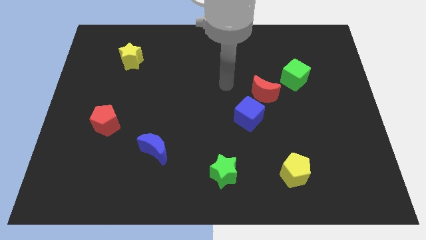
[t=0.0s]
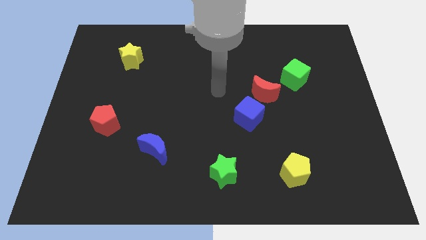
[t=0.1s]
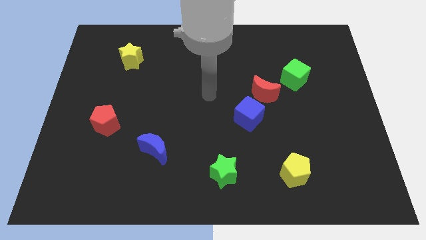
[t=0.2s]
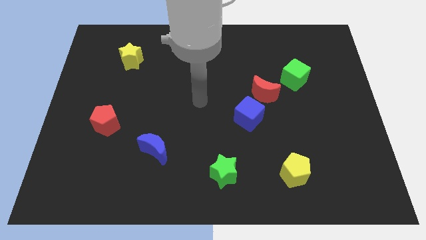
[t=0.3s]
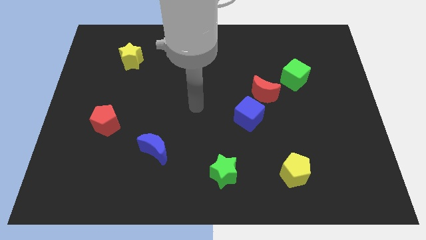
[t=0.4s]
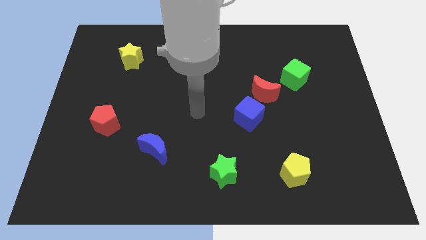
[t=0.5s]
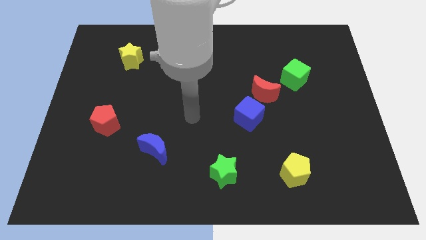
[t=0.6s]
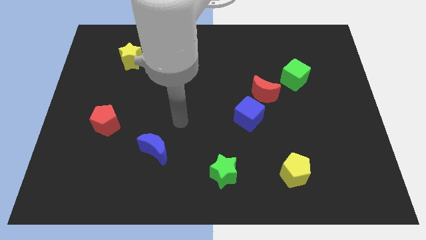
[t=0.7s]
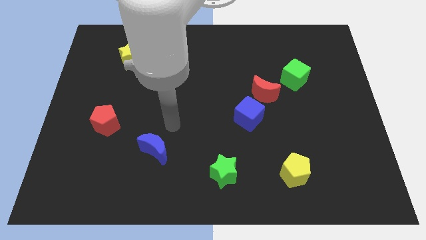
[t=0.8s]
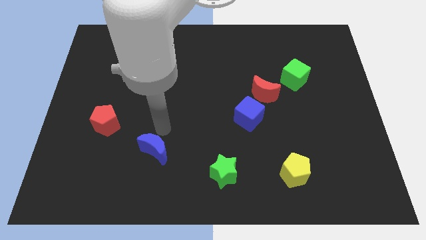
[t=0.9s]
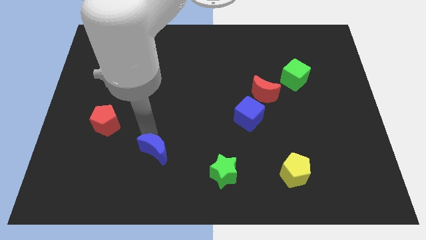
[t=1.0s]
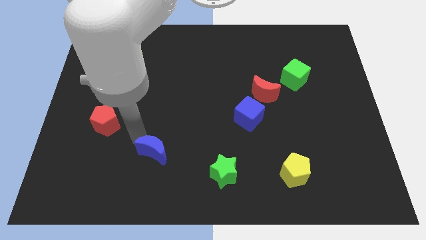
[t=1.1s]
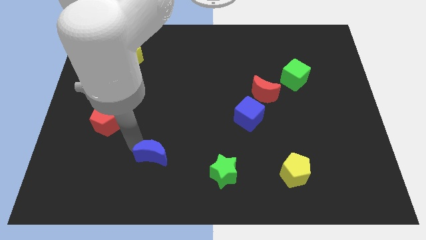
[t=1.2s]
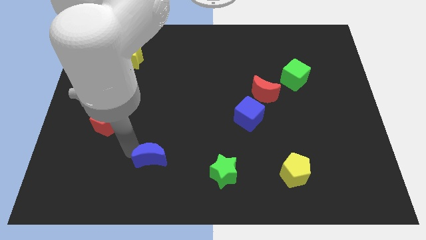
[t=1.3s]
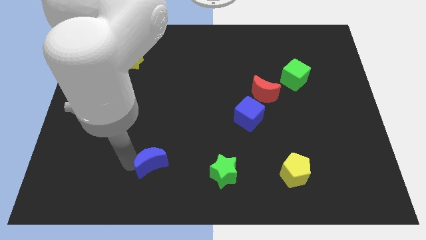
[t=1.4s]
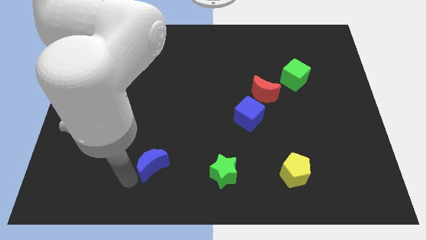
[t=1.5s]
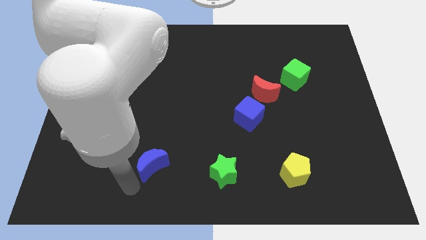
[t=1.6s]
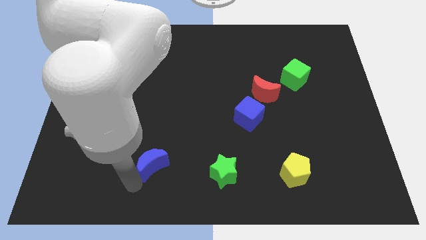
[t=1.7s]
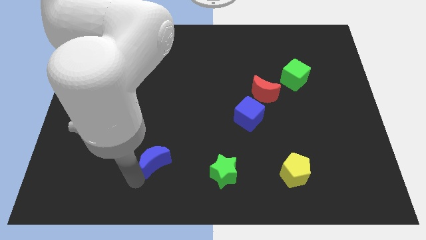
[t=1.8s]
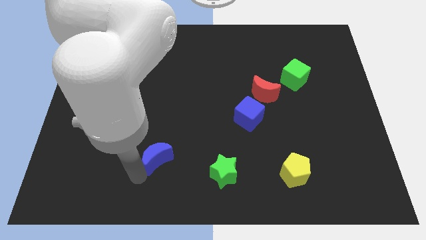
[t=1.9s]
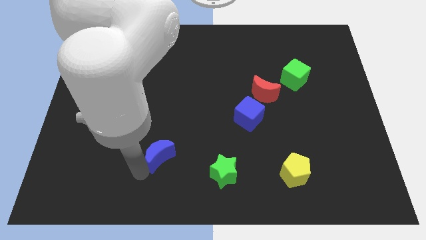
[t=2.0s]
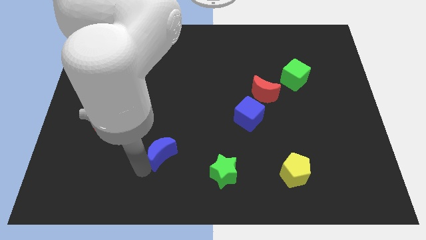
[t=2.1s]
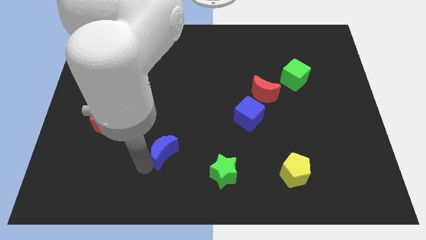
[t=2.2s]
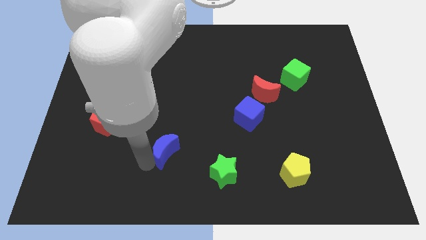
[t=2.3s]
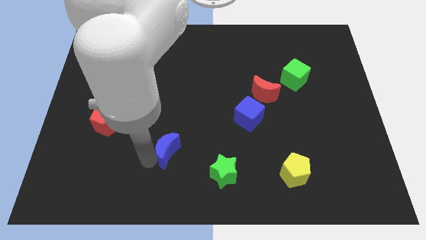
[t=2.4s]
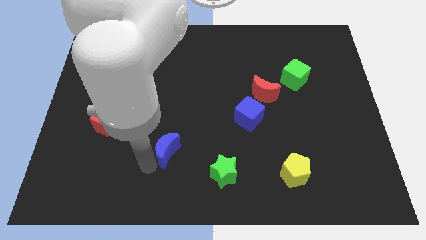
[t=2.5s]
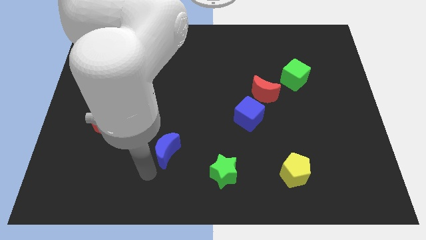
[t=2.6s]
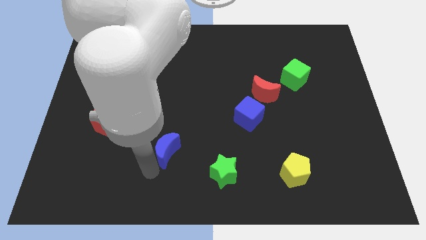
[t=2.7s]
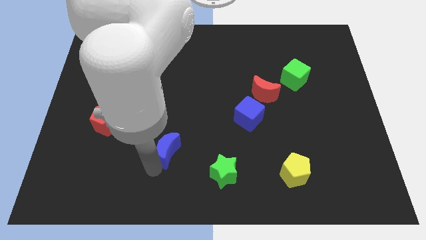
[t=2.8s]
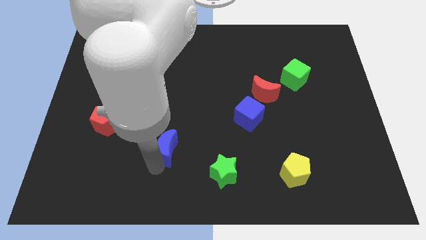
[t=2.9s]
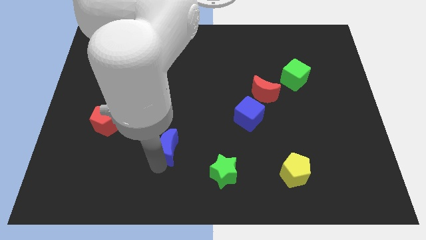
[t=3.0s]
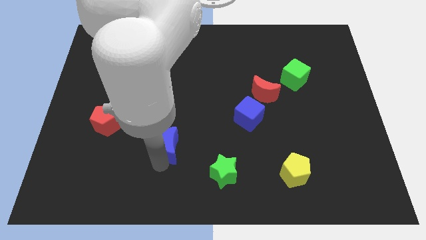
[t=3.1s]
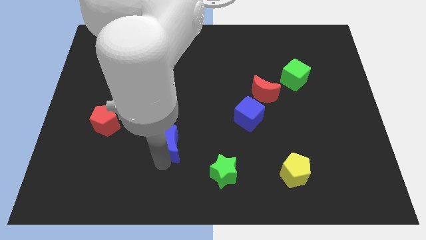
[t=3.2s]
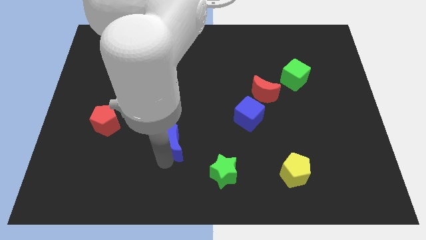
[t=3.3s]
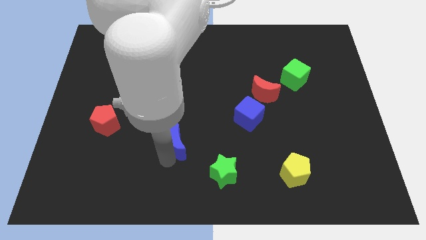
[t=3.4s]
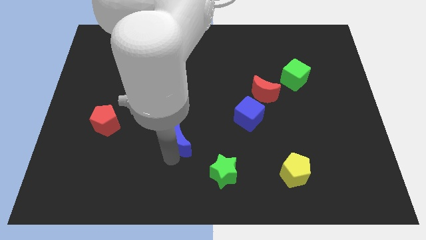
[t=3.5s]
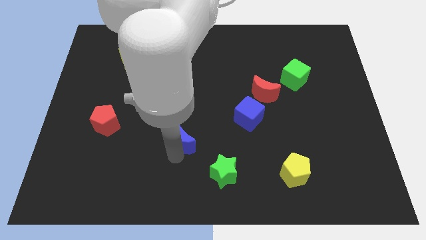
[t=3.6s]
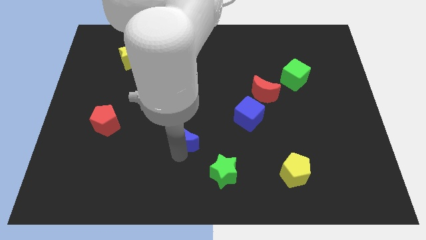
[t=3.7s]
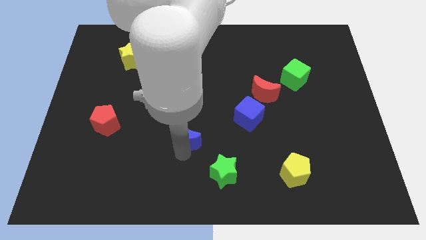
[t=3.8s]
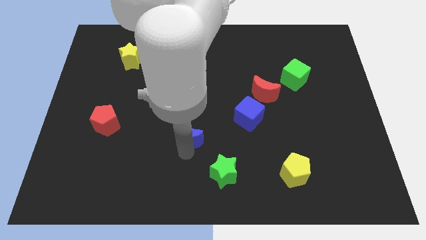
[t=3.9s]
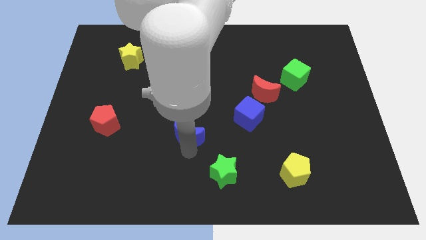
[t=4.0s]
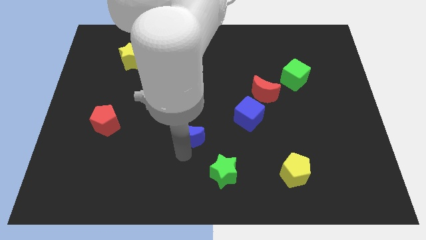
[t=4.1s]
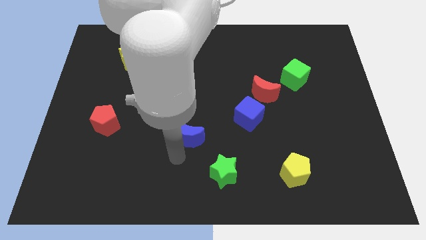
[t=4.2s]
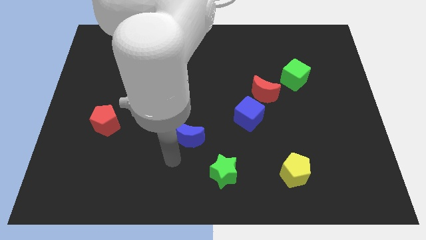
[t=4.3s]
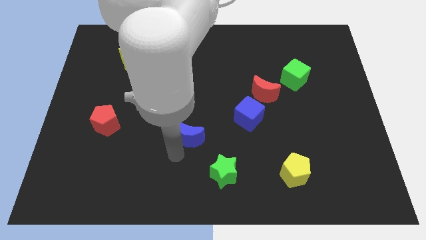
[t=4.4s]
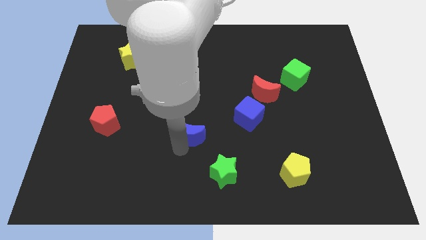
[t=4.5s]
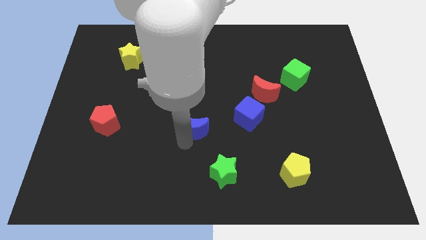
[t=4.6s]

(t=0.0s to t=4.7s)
put the blue moon just left of the blue cube

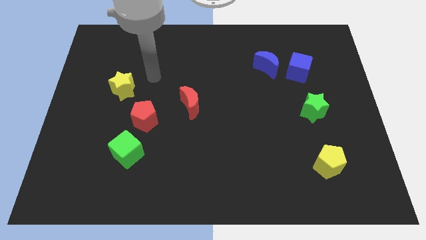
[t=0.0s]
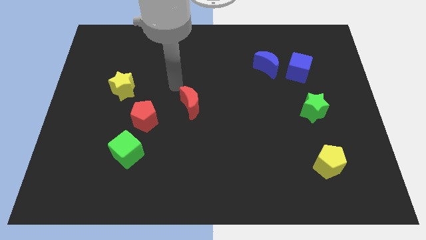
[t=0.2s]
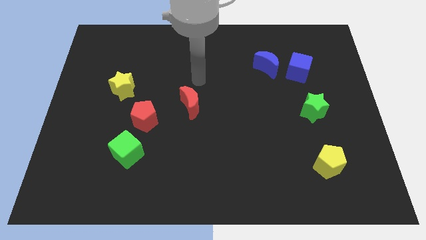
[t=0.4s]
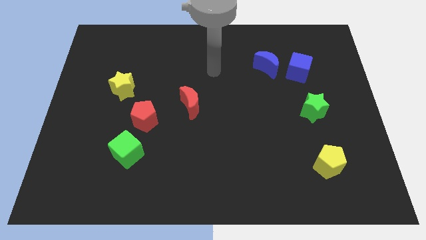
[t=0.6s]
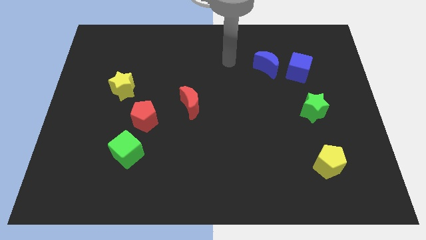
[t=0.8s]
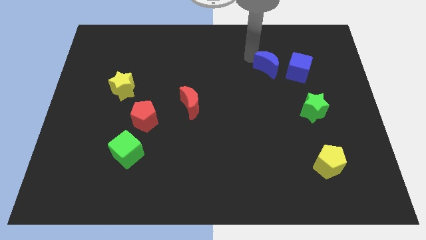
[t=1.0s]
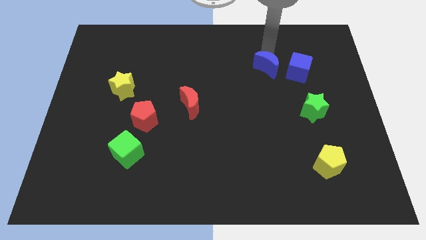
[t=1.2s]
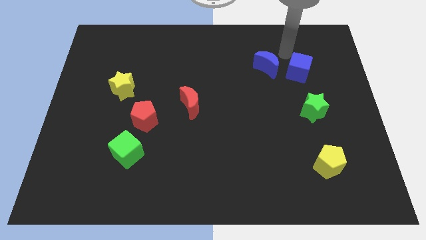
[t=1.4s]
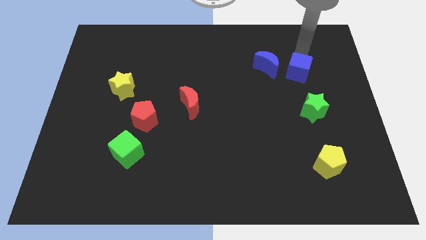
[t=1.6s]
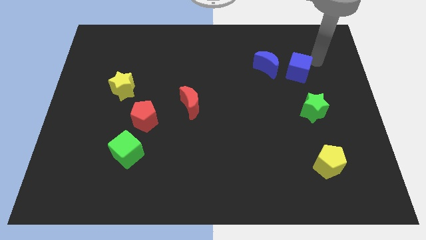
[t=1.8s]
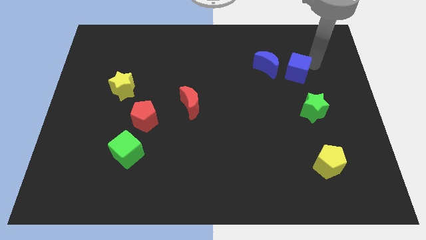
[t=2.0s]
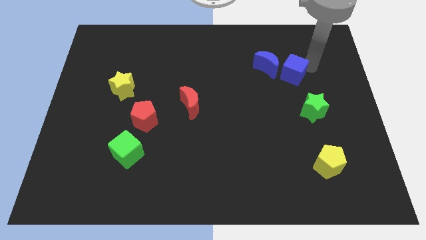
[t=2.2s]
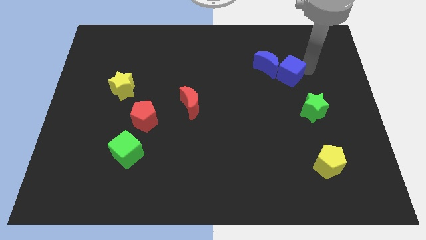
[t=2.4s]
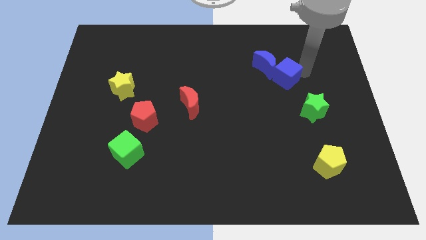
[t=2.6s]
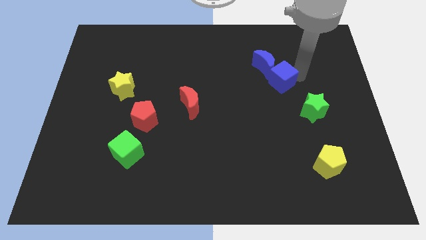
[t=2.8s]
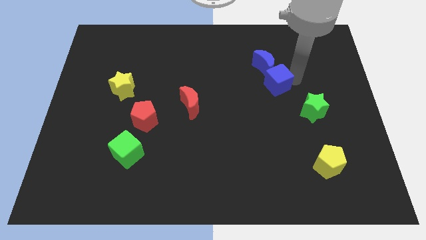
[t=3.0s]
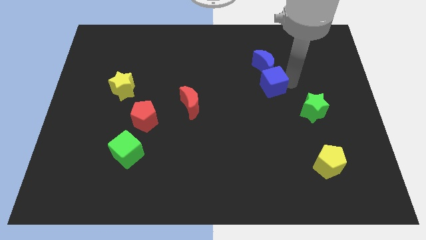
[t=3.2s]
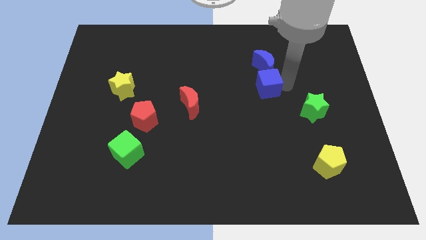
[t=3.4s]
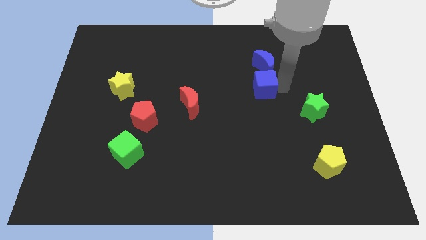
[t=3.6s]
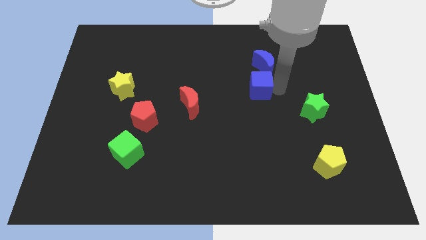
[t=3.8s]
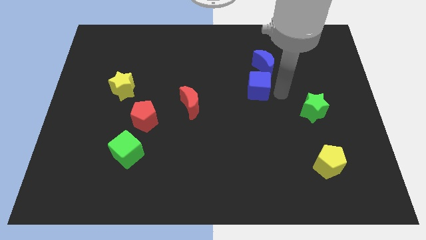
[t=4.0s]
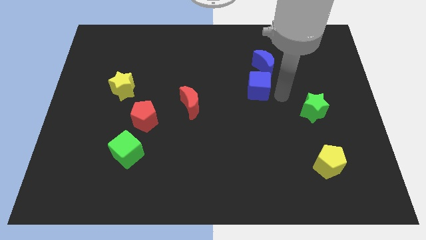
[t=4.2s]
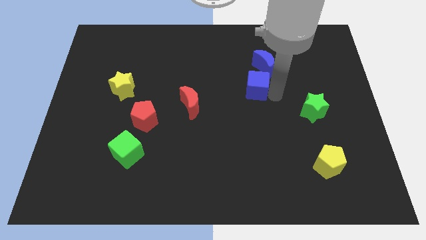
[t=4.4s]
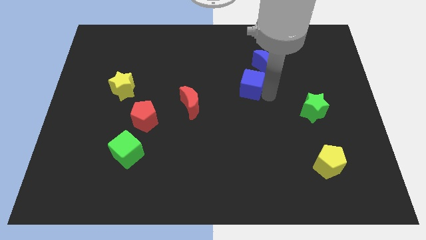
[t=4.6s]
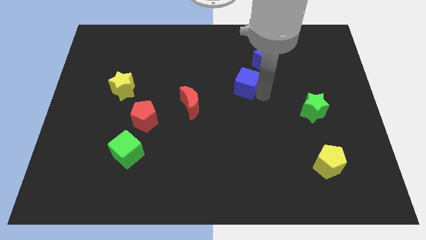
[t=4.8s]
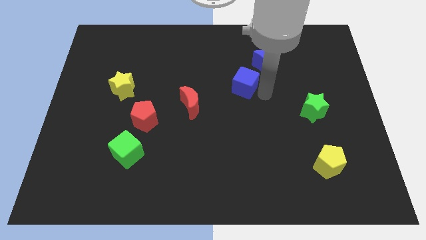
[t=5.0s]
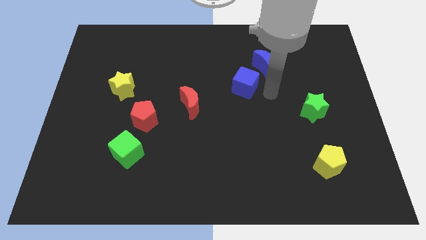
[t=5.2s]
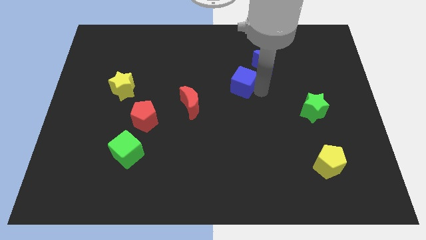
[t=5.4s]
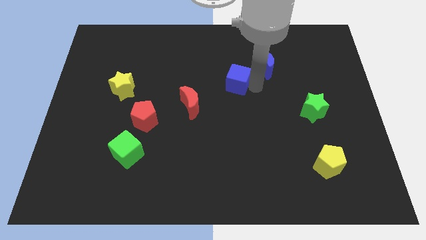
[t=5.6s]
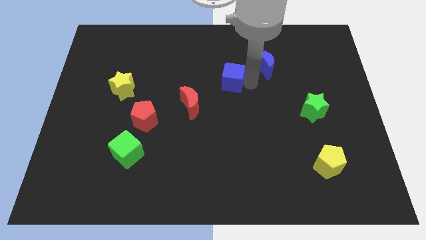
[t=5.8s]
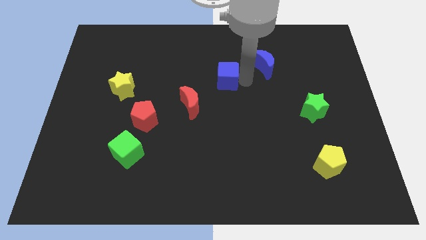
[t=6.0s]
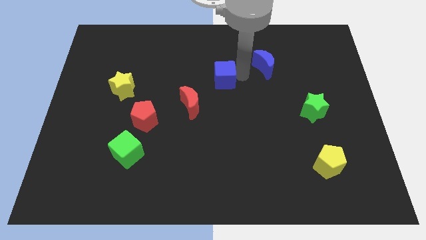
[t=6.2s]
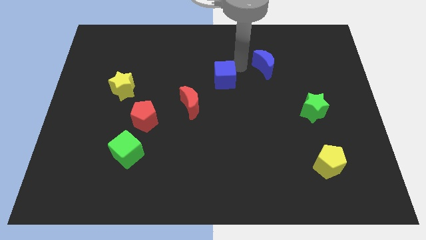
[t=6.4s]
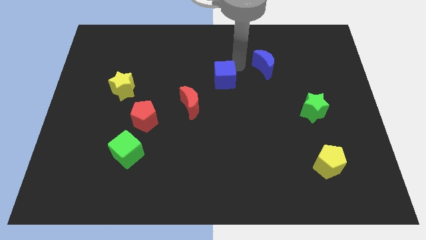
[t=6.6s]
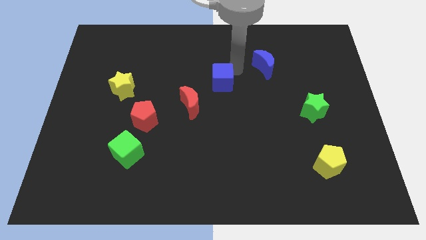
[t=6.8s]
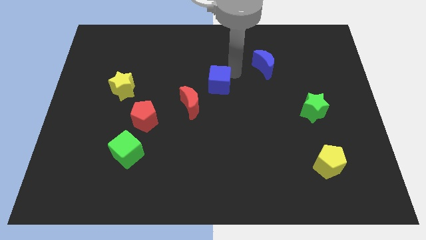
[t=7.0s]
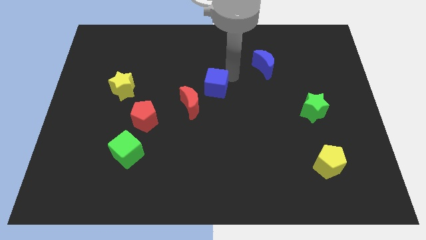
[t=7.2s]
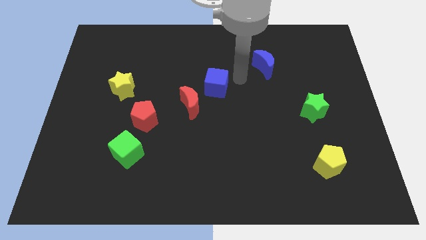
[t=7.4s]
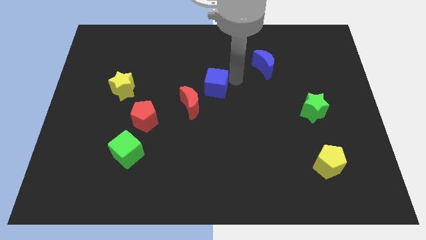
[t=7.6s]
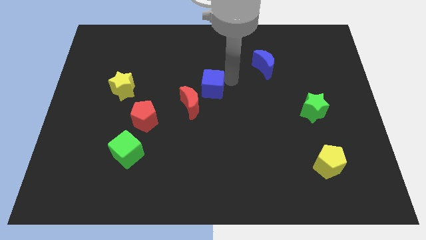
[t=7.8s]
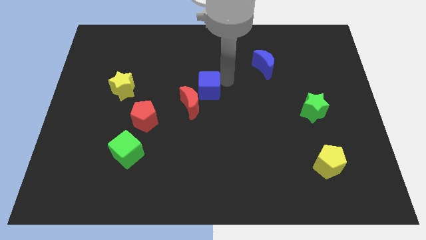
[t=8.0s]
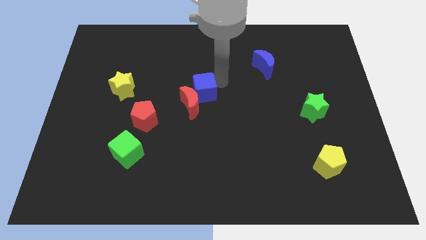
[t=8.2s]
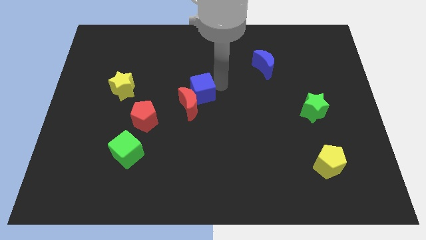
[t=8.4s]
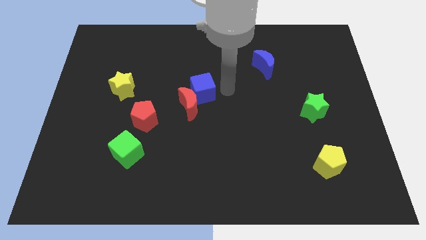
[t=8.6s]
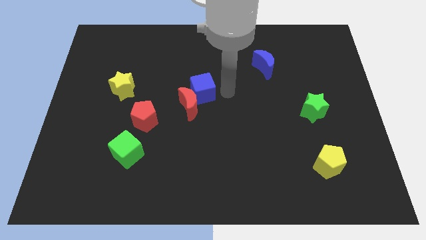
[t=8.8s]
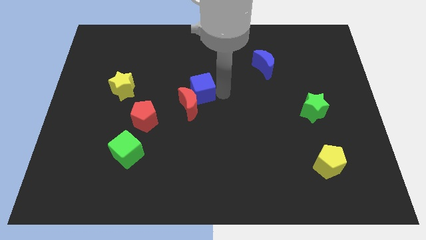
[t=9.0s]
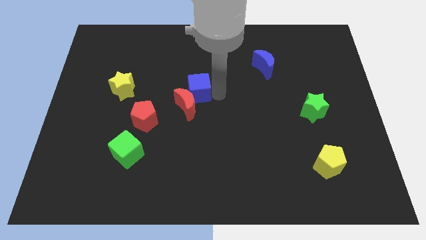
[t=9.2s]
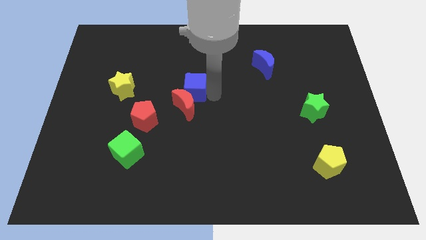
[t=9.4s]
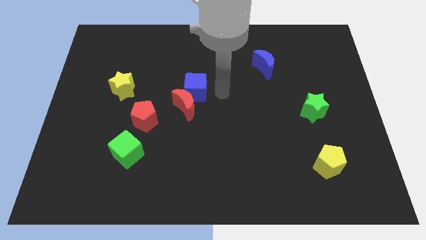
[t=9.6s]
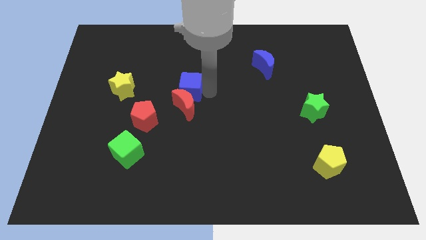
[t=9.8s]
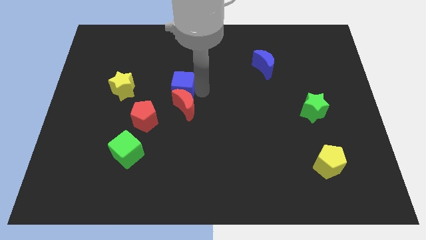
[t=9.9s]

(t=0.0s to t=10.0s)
slide the blue cube just right of the yellow star
